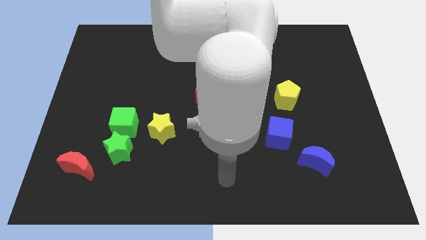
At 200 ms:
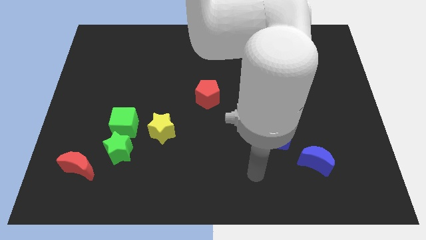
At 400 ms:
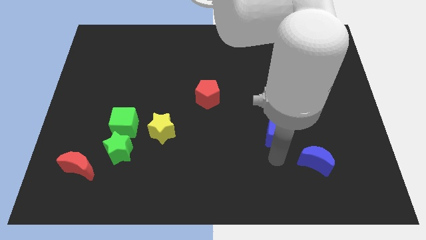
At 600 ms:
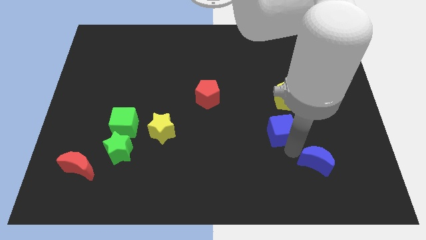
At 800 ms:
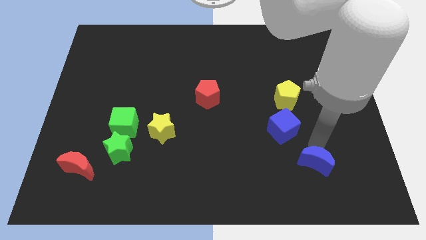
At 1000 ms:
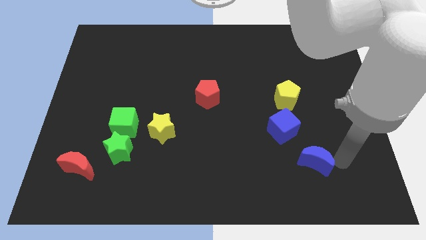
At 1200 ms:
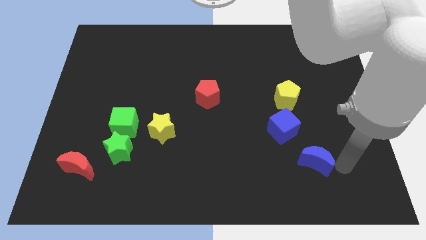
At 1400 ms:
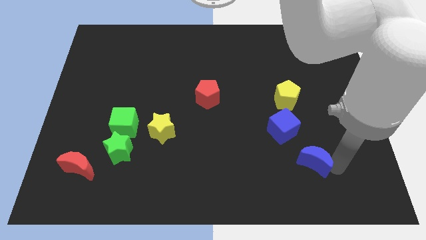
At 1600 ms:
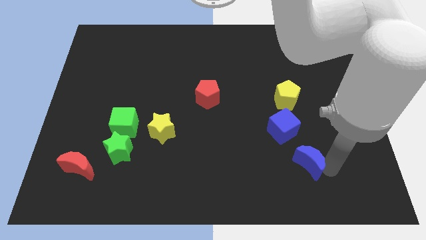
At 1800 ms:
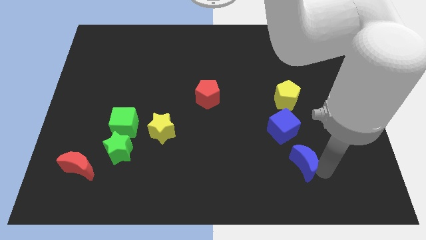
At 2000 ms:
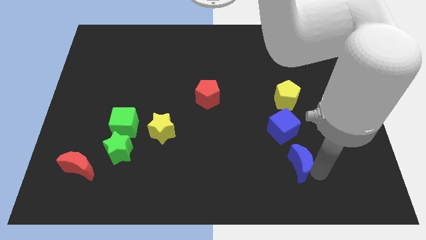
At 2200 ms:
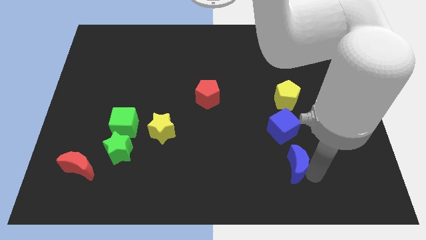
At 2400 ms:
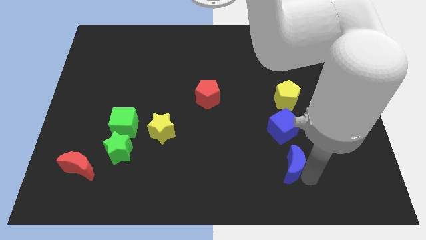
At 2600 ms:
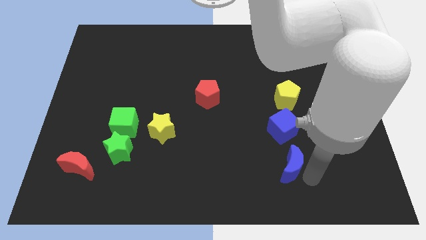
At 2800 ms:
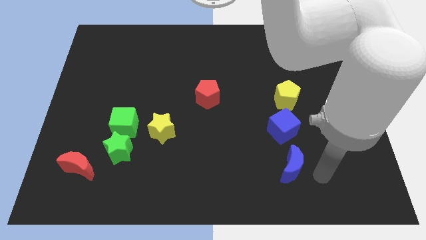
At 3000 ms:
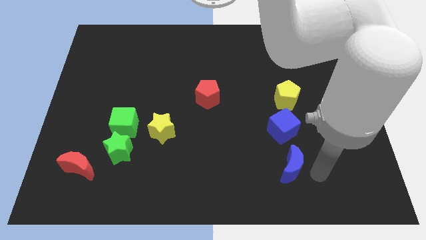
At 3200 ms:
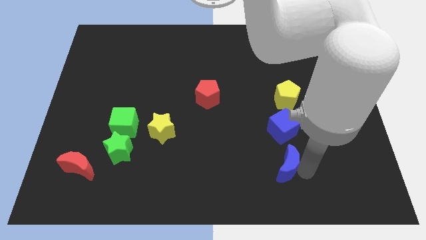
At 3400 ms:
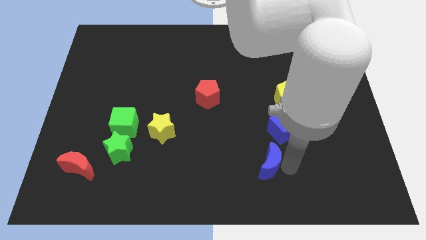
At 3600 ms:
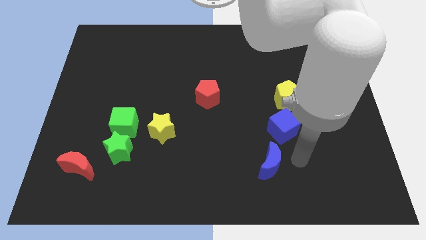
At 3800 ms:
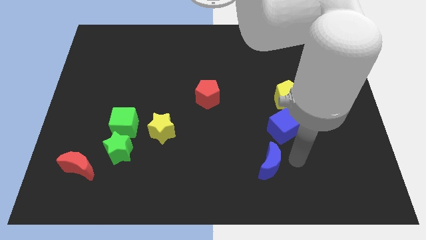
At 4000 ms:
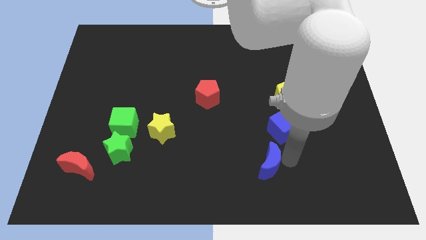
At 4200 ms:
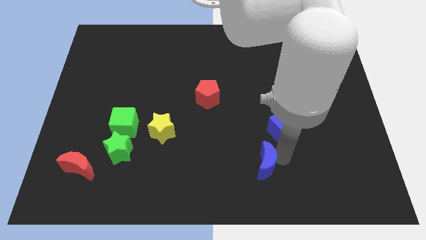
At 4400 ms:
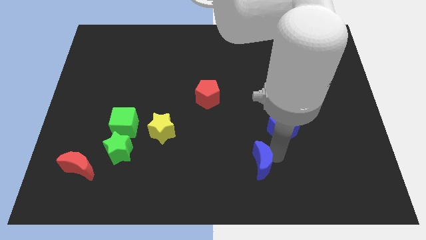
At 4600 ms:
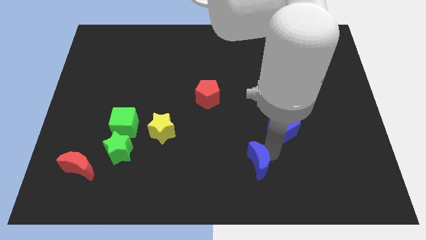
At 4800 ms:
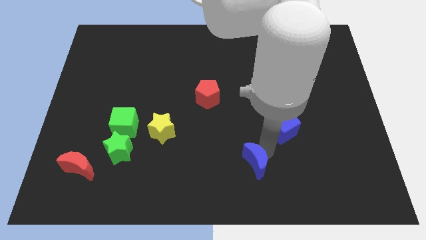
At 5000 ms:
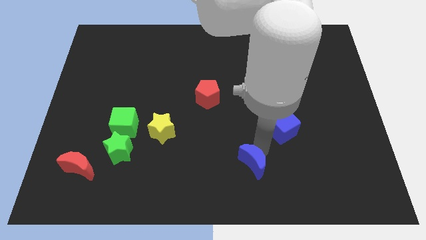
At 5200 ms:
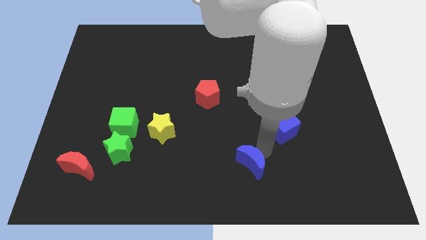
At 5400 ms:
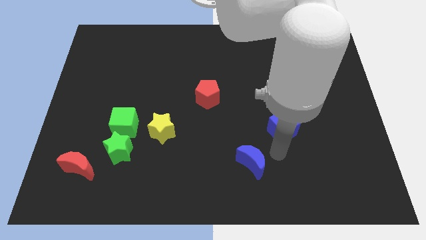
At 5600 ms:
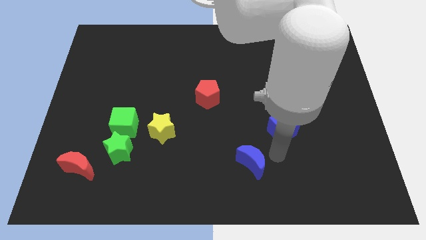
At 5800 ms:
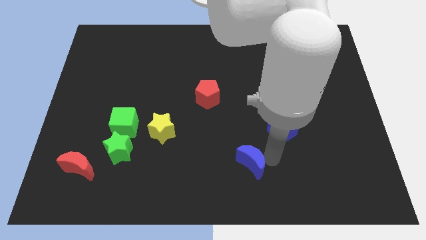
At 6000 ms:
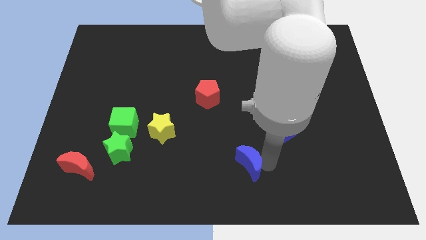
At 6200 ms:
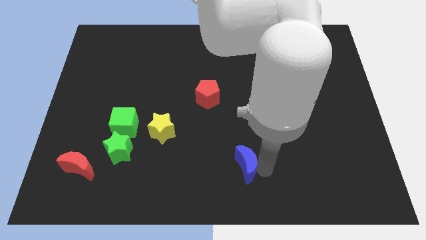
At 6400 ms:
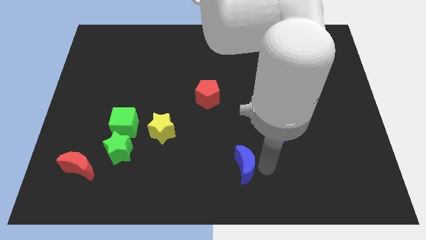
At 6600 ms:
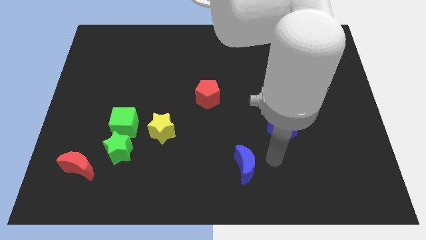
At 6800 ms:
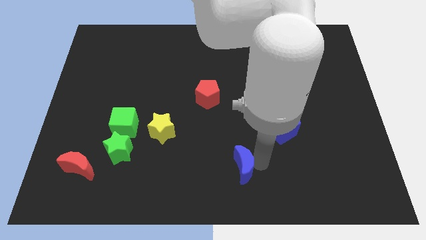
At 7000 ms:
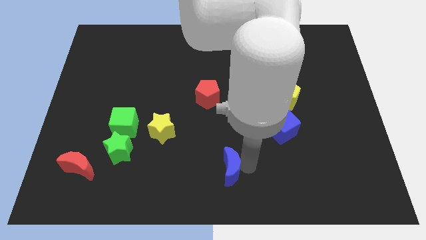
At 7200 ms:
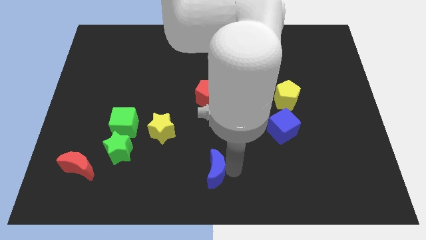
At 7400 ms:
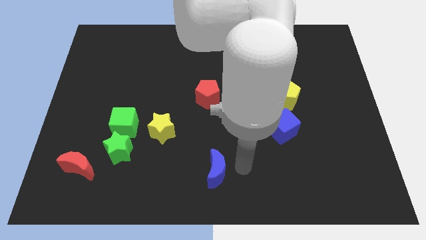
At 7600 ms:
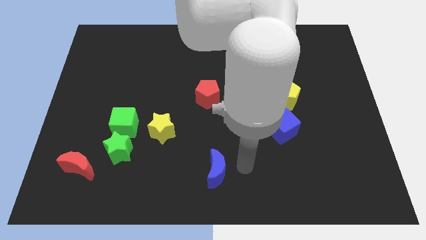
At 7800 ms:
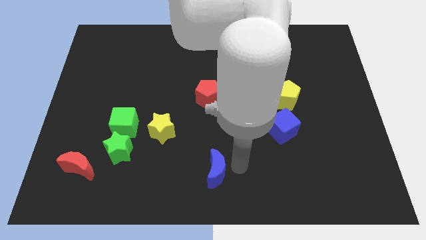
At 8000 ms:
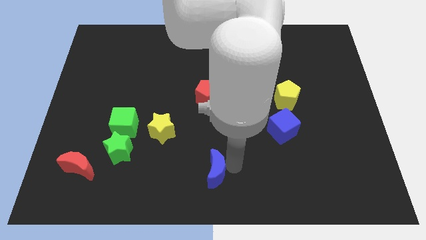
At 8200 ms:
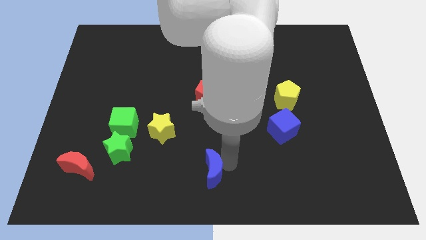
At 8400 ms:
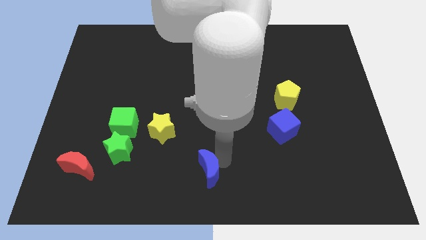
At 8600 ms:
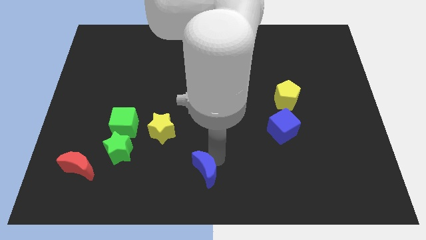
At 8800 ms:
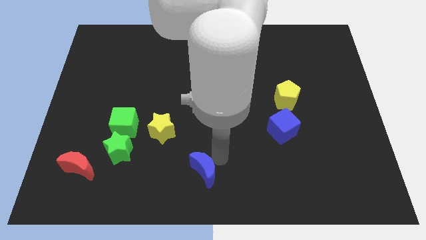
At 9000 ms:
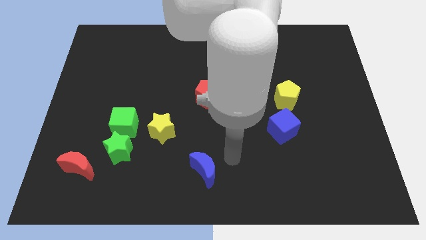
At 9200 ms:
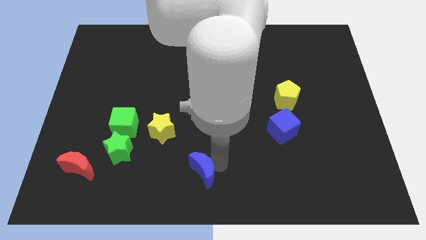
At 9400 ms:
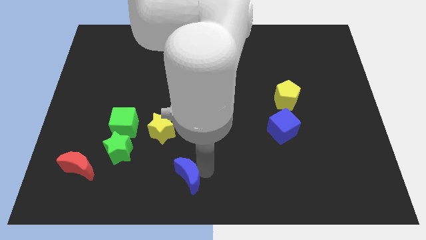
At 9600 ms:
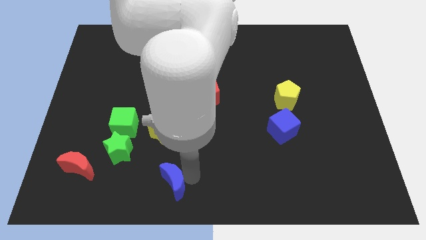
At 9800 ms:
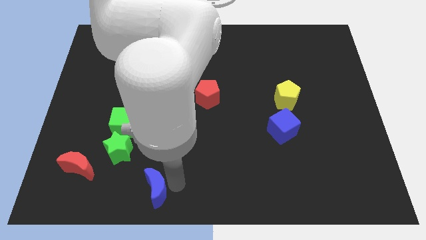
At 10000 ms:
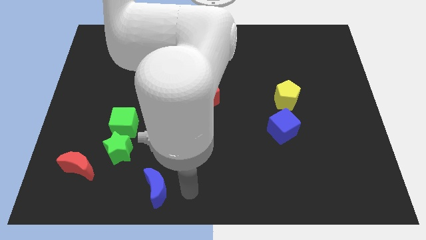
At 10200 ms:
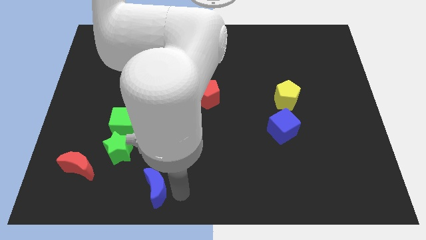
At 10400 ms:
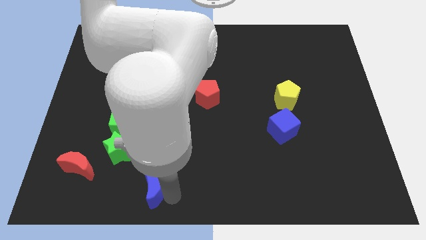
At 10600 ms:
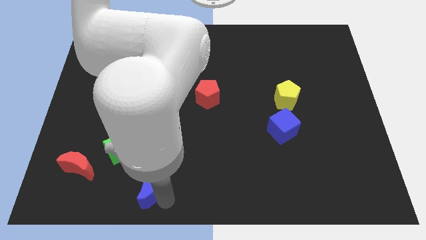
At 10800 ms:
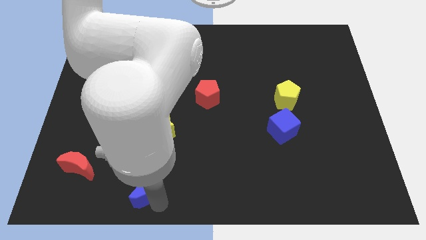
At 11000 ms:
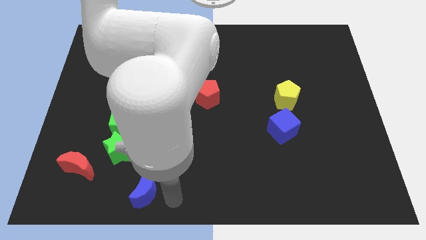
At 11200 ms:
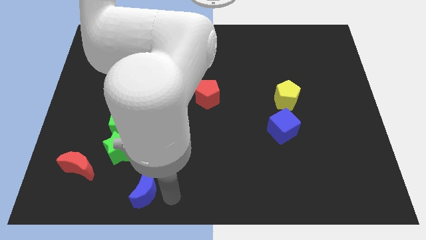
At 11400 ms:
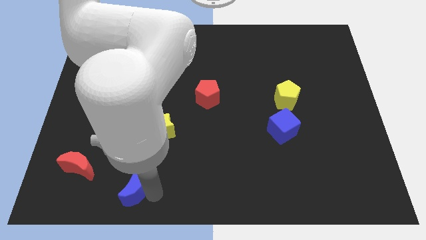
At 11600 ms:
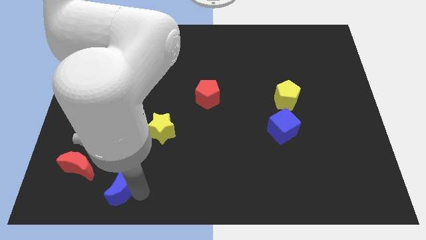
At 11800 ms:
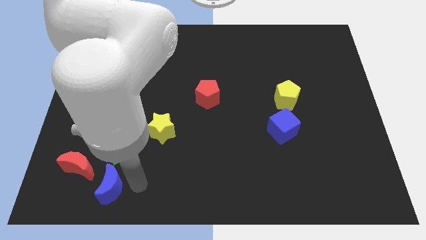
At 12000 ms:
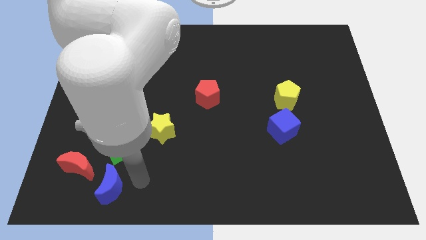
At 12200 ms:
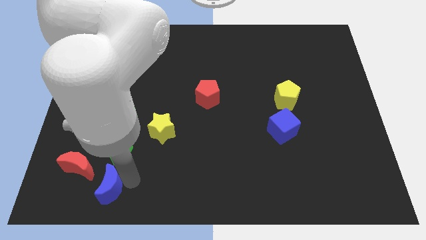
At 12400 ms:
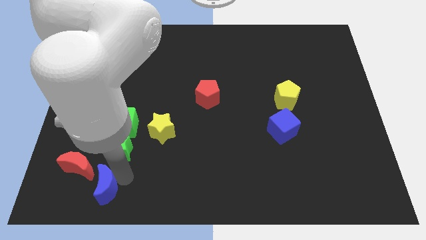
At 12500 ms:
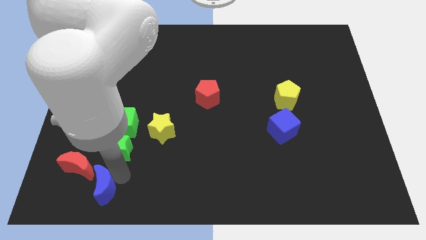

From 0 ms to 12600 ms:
slide the blue moon diagonally down and to the left of the green star
